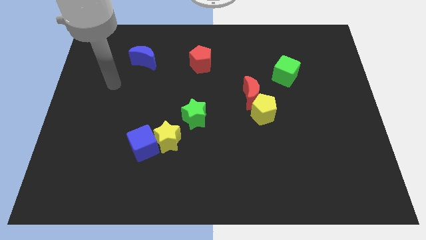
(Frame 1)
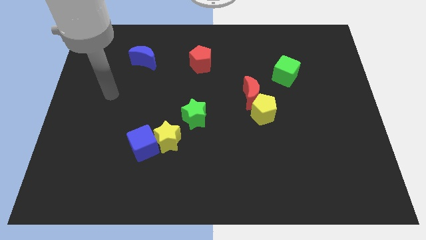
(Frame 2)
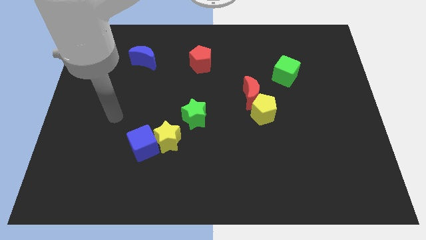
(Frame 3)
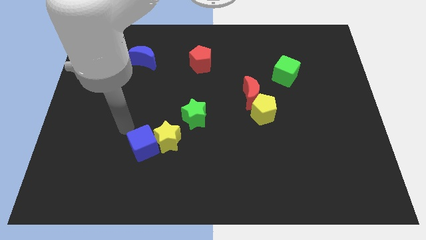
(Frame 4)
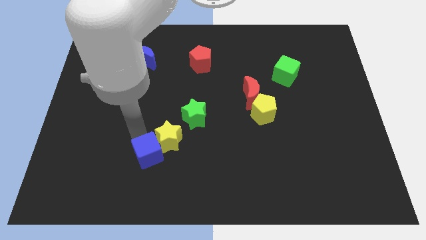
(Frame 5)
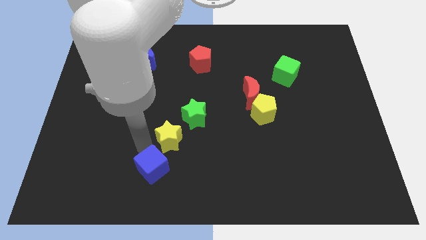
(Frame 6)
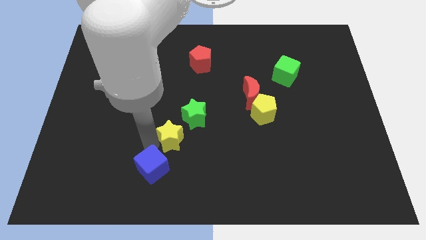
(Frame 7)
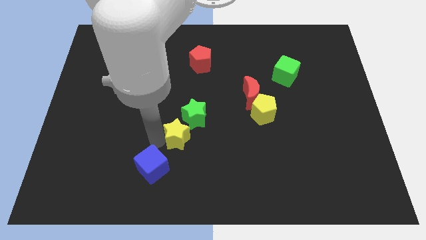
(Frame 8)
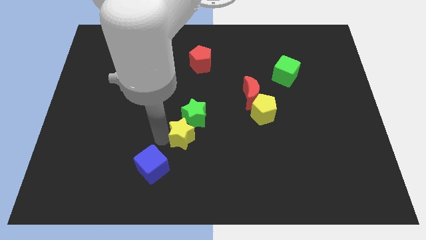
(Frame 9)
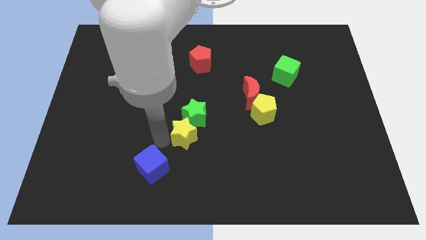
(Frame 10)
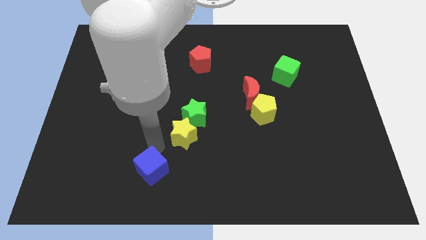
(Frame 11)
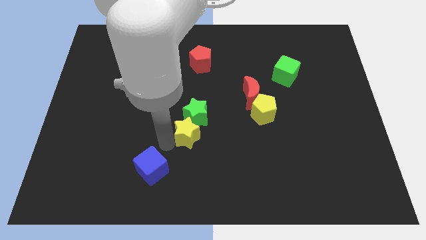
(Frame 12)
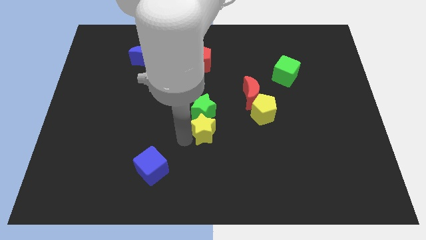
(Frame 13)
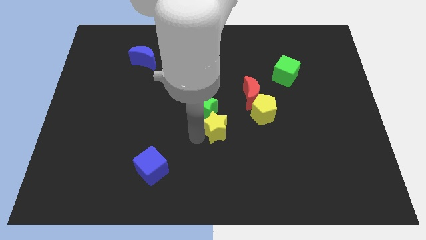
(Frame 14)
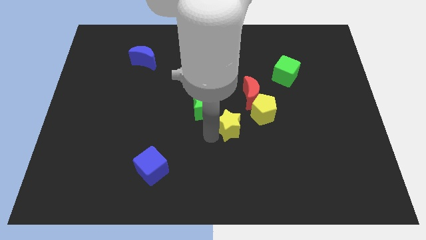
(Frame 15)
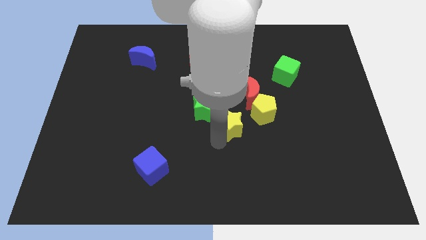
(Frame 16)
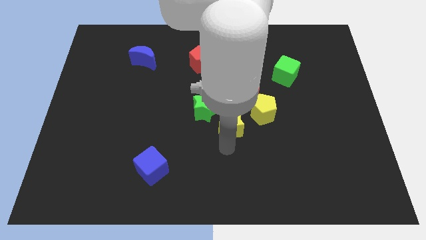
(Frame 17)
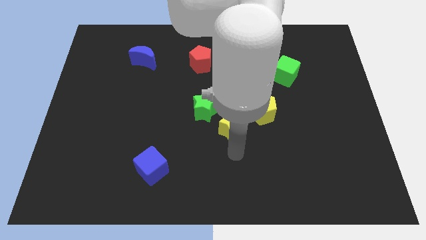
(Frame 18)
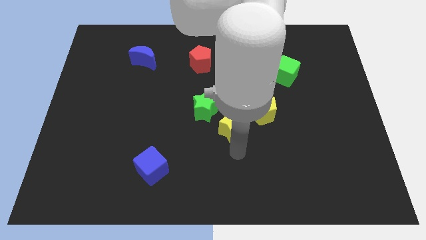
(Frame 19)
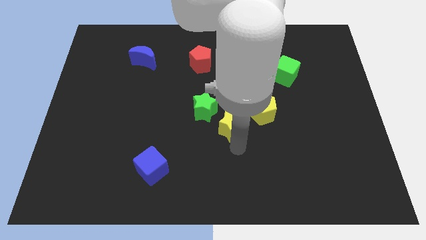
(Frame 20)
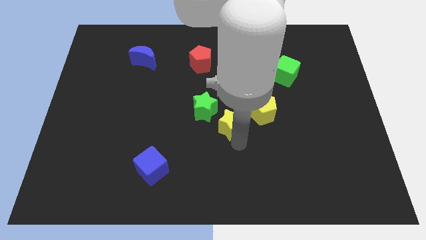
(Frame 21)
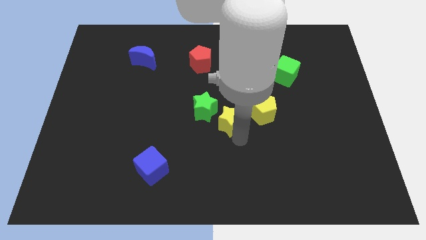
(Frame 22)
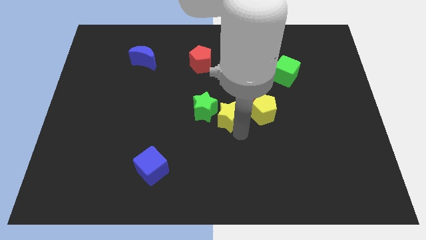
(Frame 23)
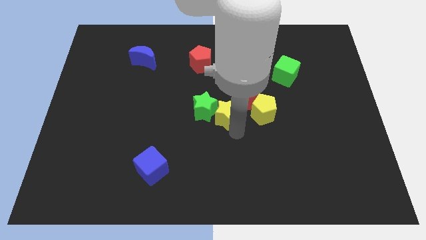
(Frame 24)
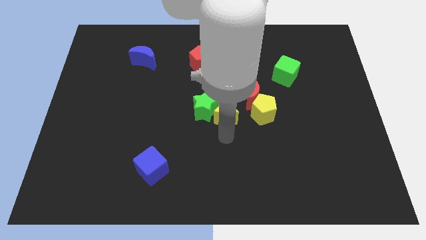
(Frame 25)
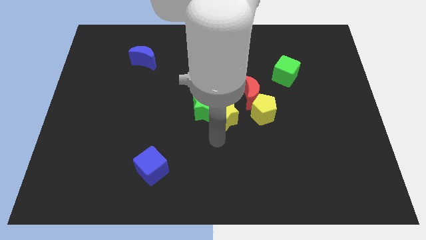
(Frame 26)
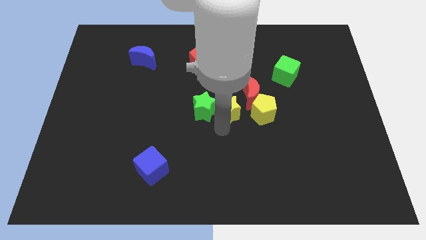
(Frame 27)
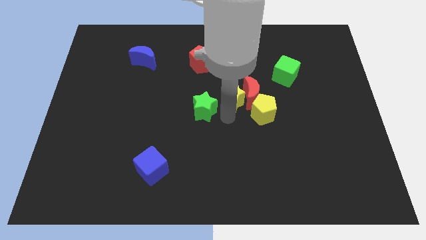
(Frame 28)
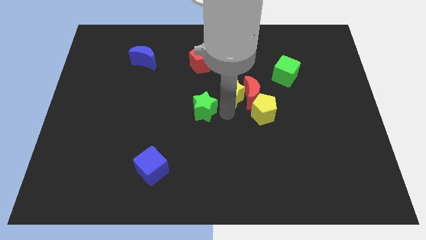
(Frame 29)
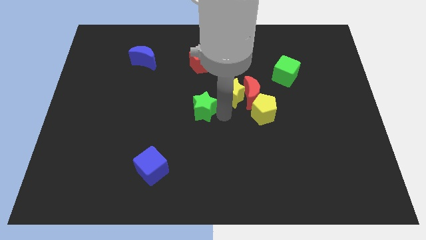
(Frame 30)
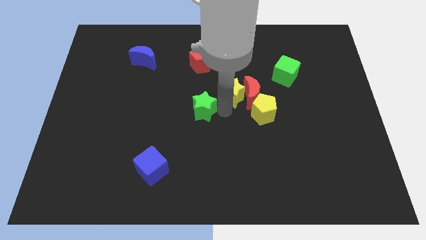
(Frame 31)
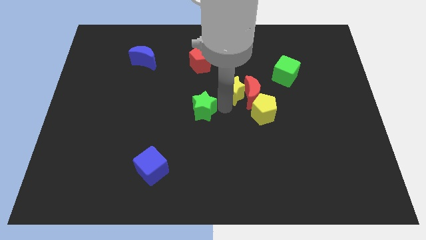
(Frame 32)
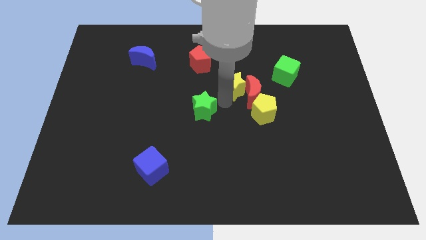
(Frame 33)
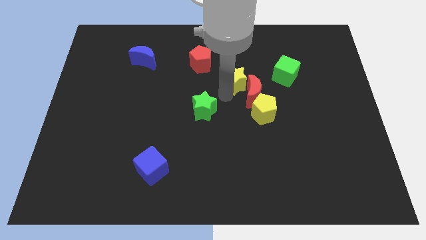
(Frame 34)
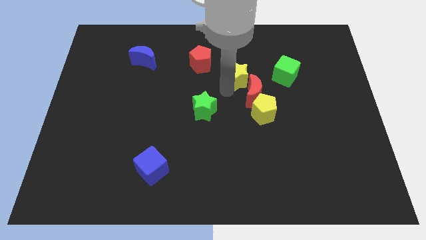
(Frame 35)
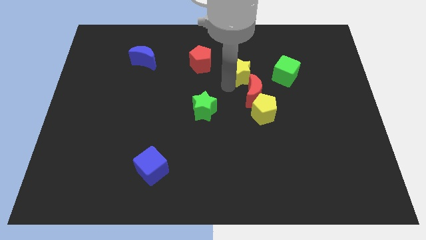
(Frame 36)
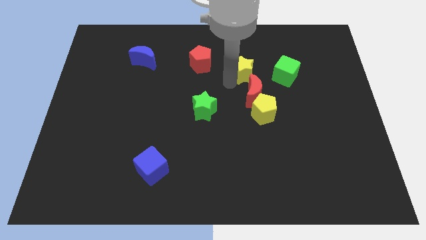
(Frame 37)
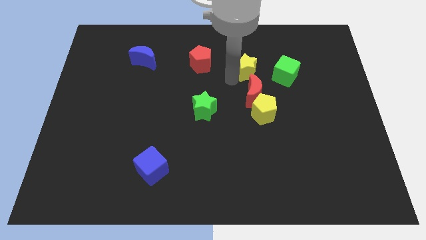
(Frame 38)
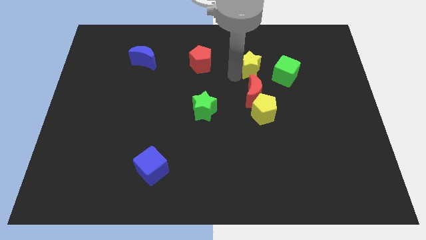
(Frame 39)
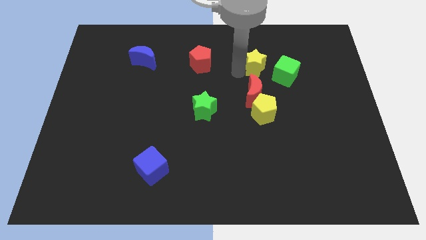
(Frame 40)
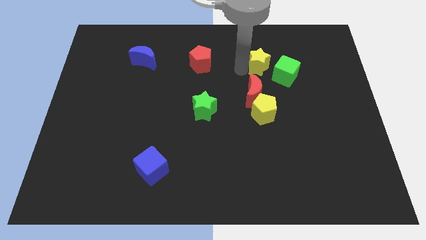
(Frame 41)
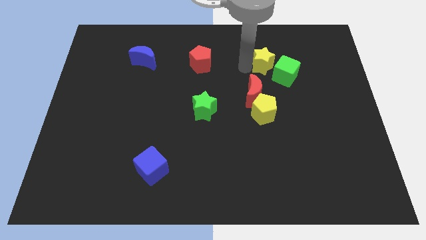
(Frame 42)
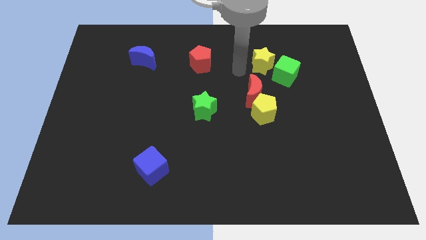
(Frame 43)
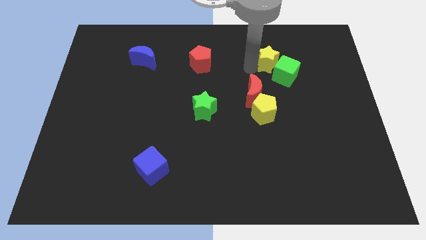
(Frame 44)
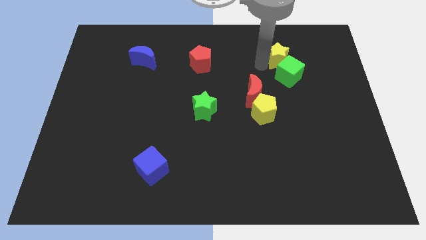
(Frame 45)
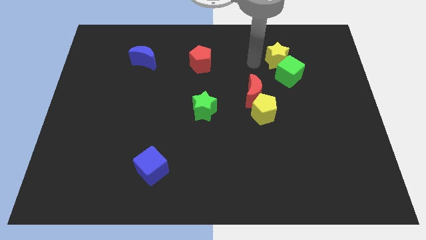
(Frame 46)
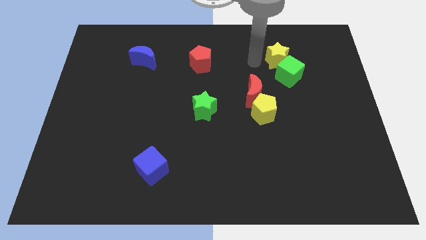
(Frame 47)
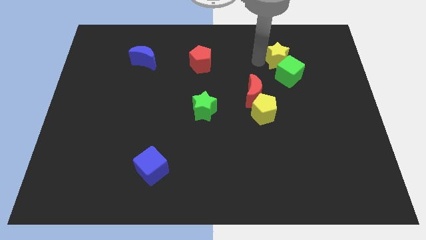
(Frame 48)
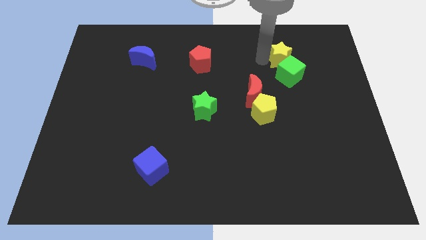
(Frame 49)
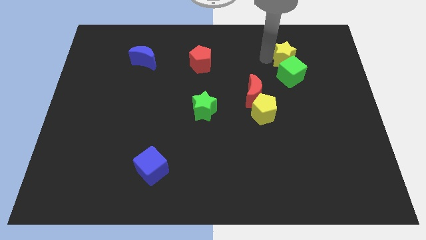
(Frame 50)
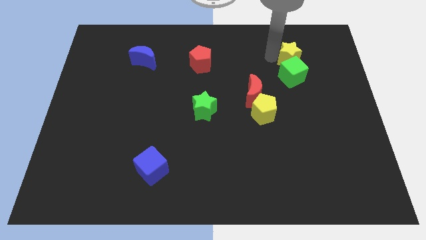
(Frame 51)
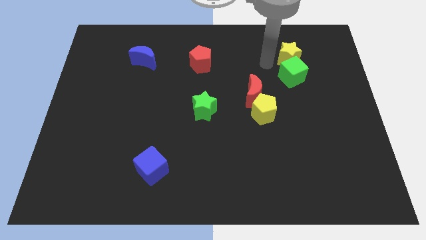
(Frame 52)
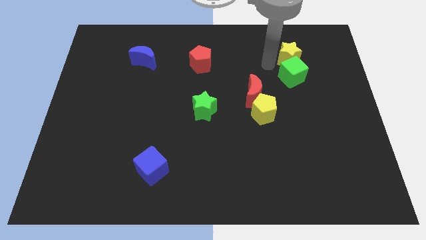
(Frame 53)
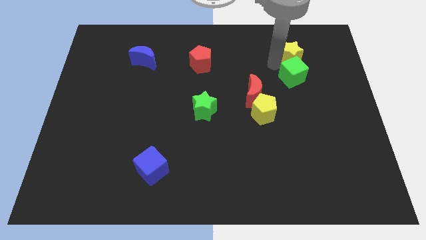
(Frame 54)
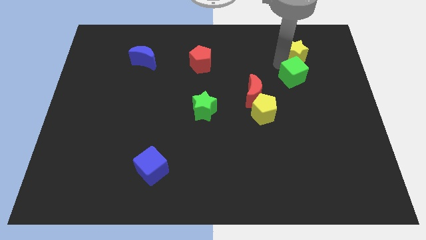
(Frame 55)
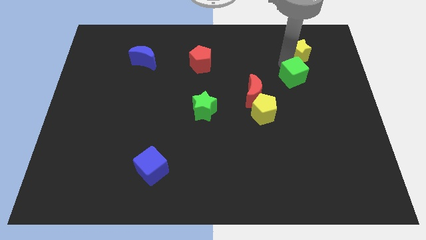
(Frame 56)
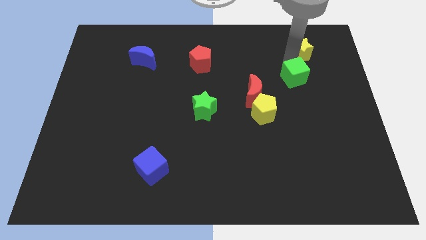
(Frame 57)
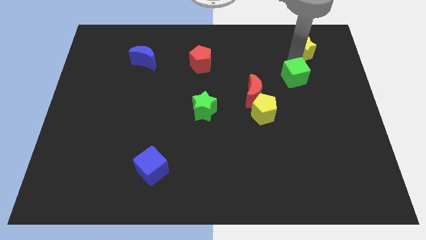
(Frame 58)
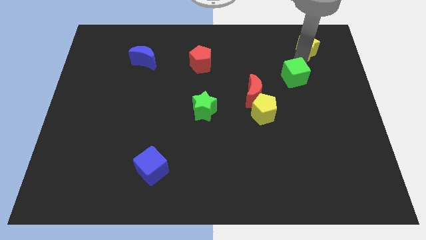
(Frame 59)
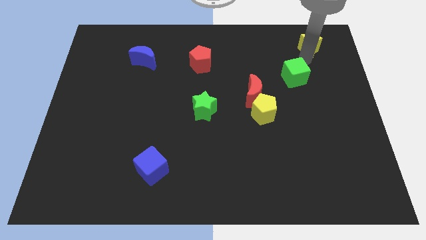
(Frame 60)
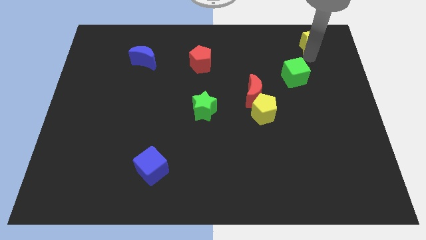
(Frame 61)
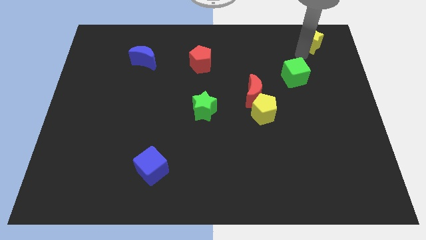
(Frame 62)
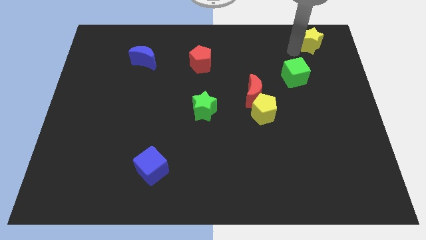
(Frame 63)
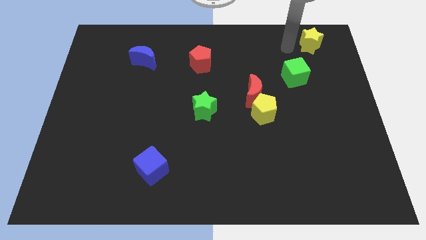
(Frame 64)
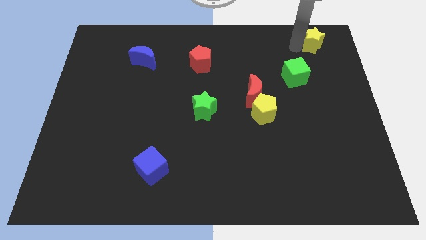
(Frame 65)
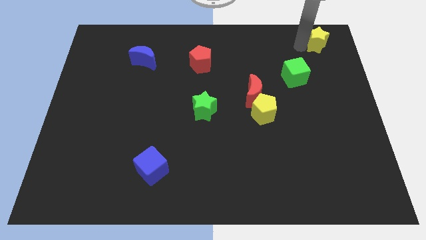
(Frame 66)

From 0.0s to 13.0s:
slide the yellow star to the upper right corner
